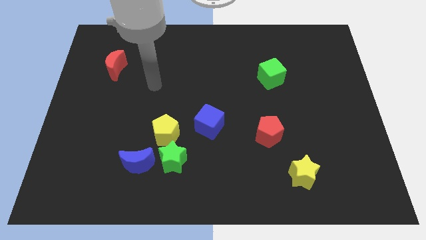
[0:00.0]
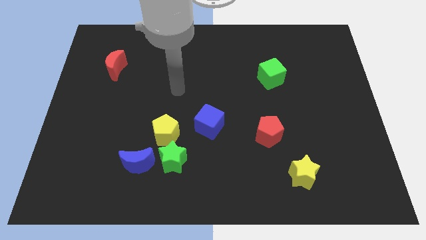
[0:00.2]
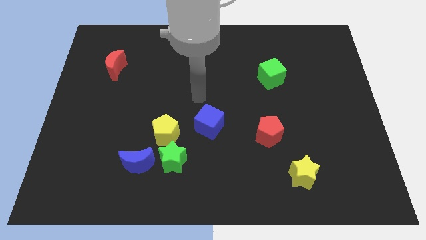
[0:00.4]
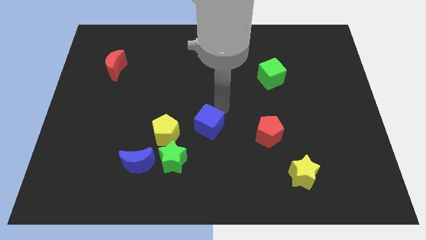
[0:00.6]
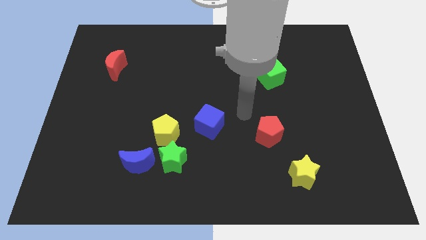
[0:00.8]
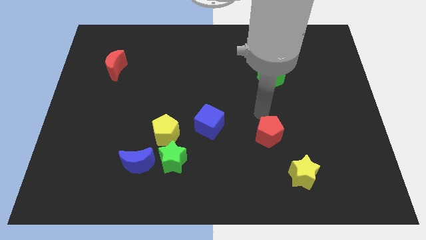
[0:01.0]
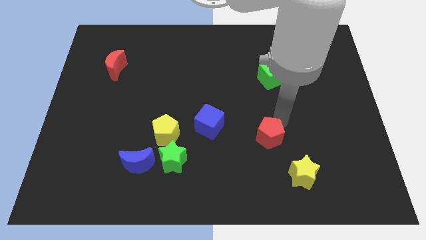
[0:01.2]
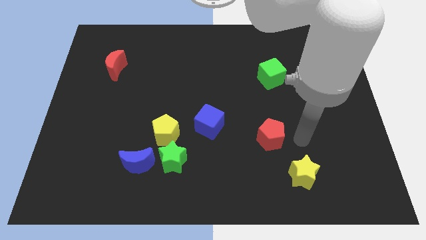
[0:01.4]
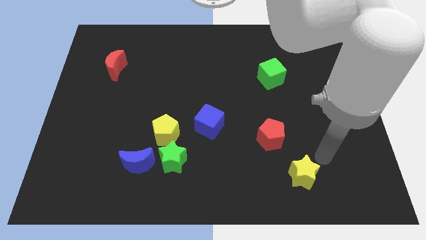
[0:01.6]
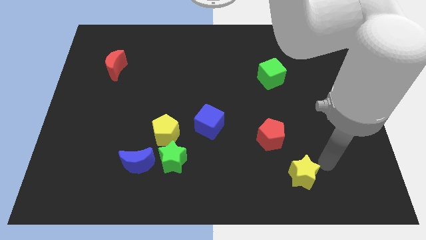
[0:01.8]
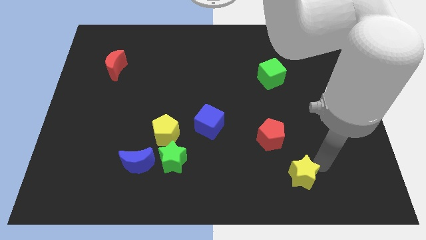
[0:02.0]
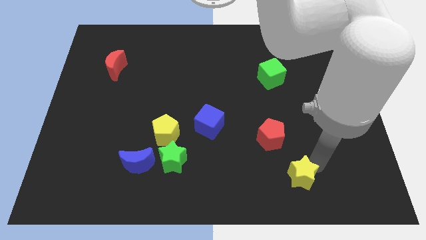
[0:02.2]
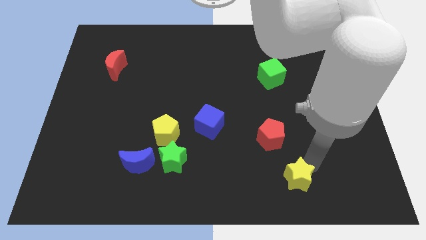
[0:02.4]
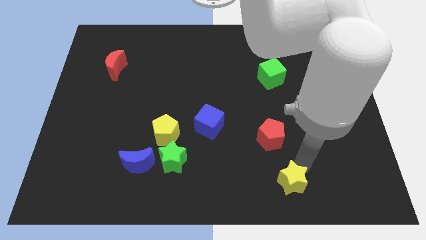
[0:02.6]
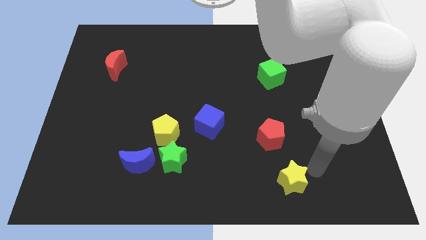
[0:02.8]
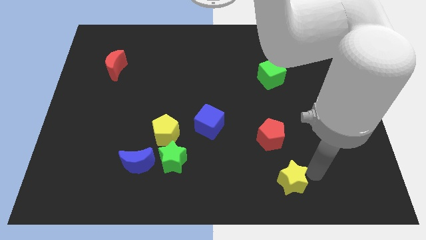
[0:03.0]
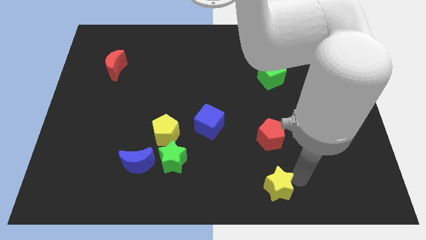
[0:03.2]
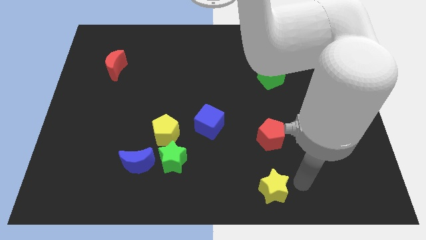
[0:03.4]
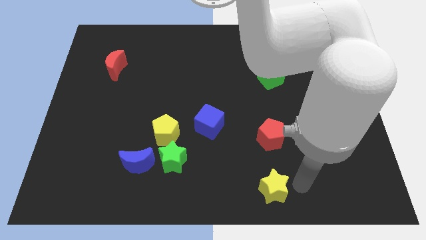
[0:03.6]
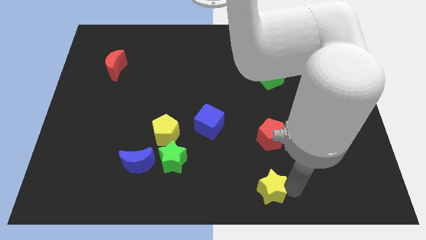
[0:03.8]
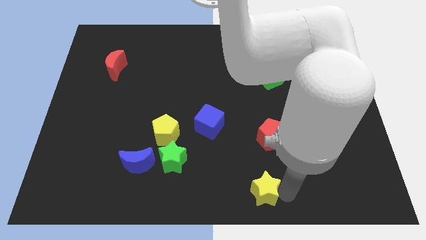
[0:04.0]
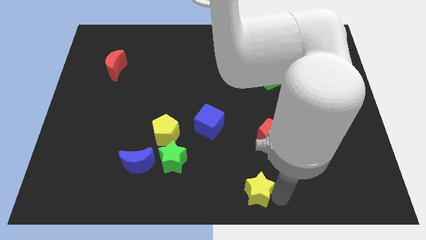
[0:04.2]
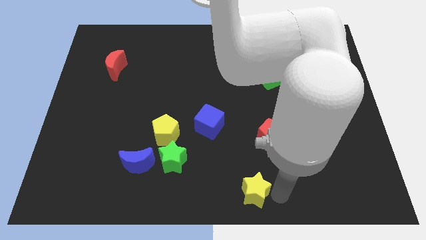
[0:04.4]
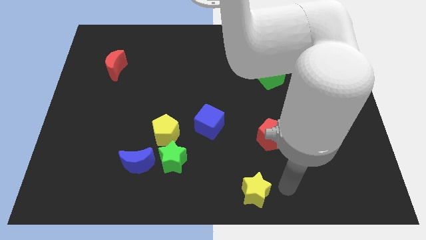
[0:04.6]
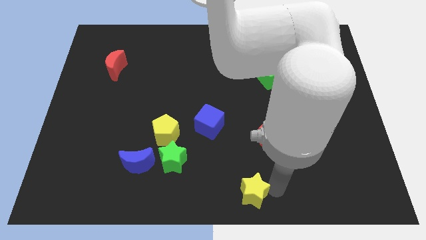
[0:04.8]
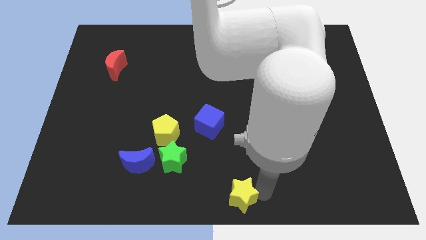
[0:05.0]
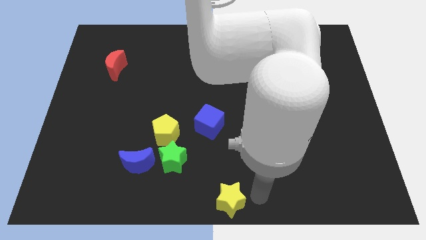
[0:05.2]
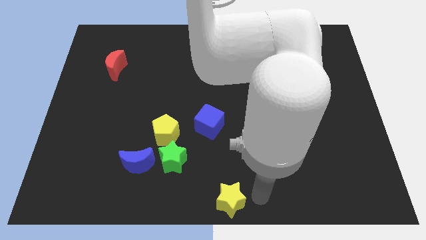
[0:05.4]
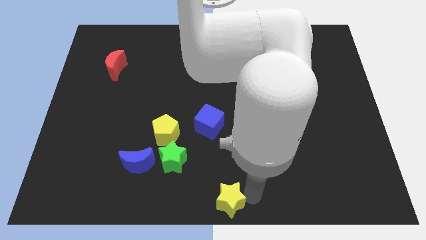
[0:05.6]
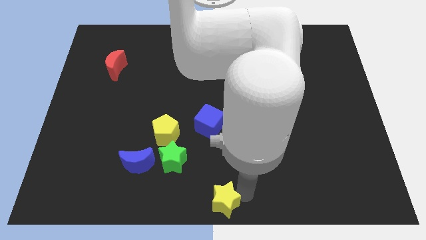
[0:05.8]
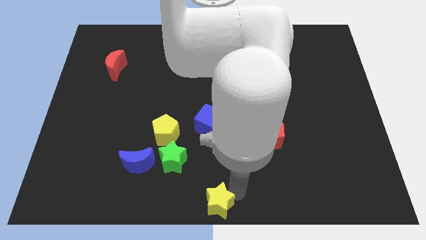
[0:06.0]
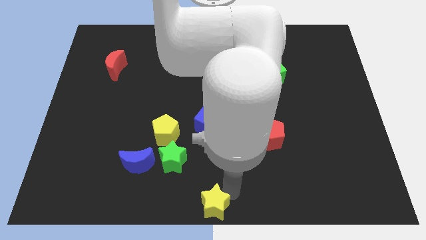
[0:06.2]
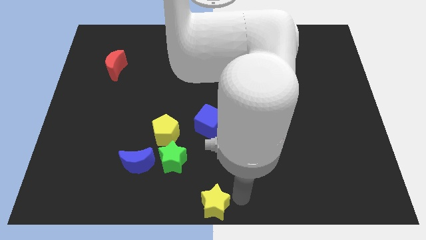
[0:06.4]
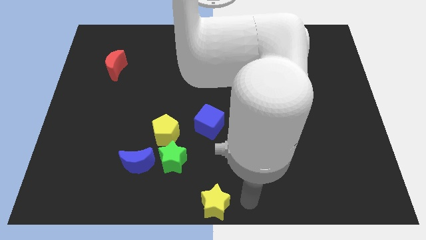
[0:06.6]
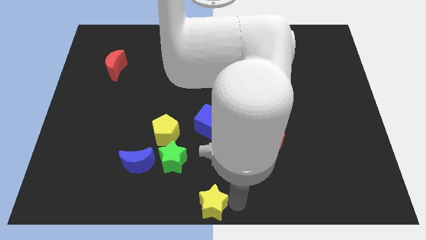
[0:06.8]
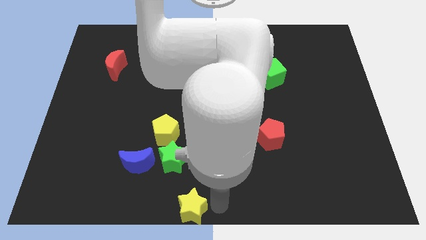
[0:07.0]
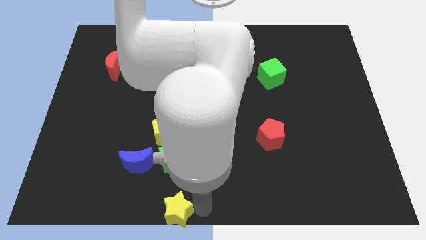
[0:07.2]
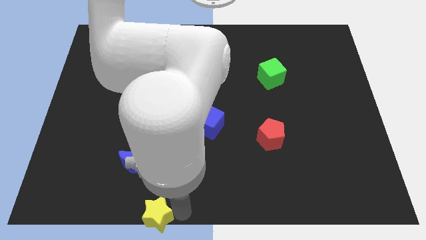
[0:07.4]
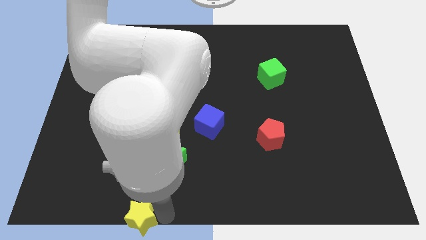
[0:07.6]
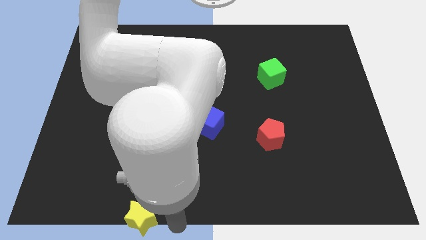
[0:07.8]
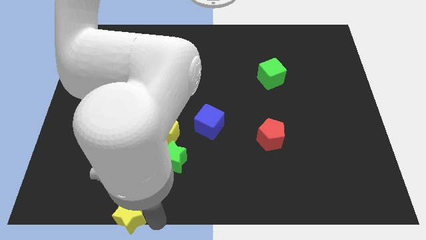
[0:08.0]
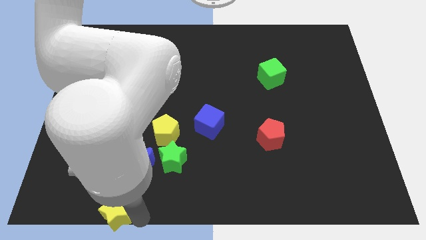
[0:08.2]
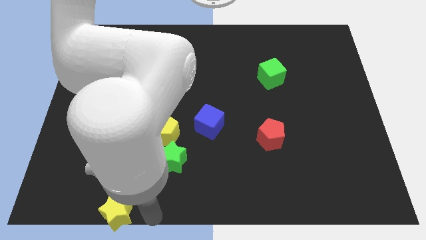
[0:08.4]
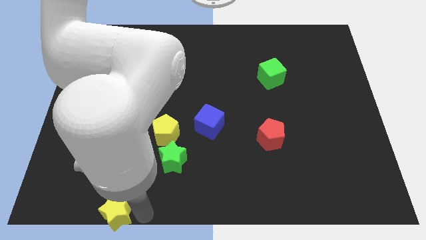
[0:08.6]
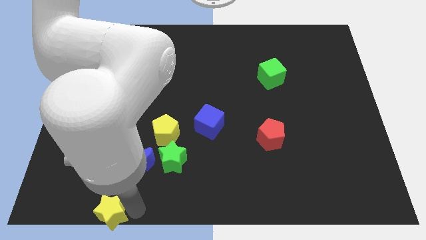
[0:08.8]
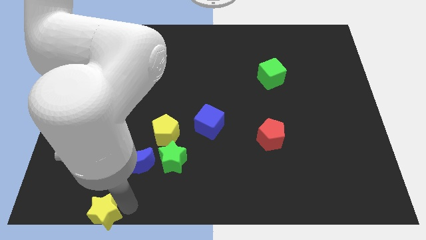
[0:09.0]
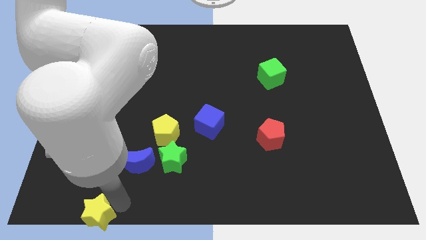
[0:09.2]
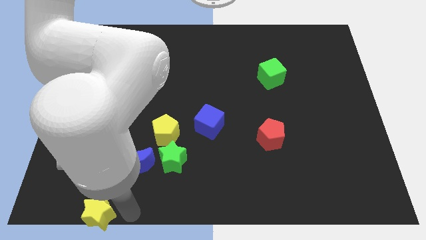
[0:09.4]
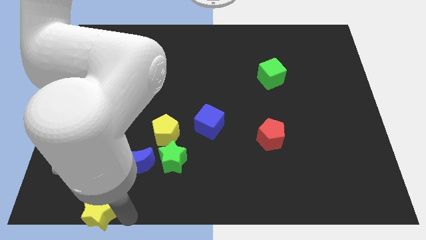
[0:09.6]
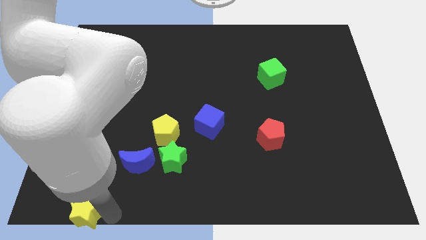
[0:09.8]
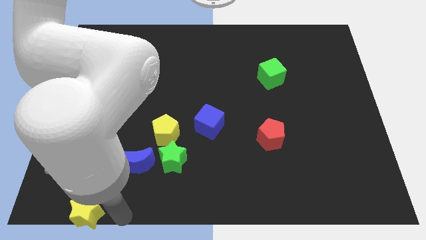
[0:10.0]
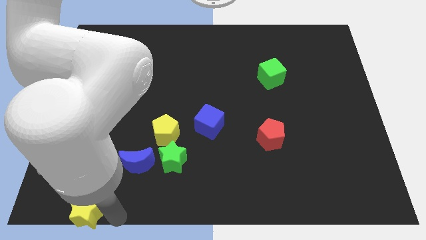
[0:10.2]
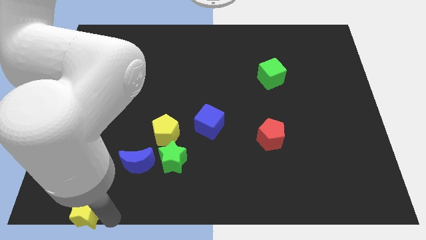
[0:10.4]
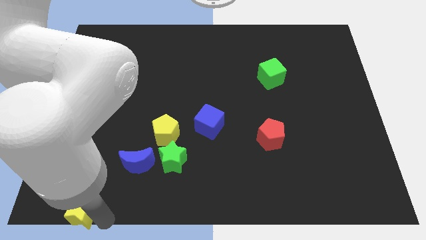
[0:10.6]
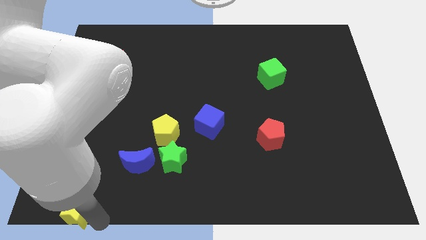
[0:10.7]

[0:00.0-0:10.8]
push the yellow star to the lower left corner
